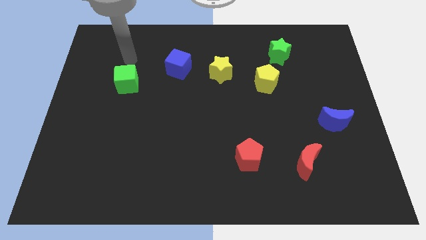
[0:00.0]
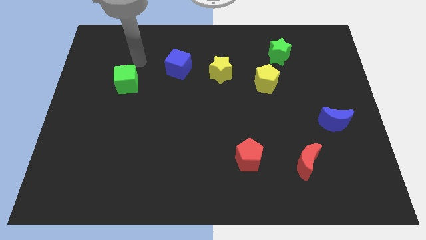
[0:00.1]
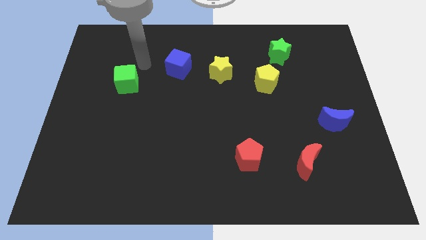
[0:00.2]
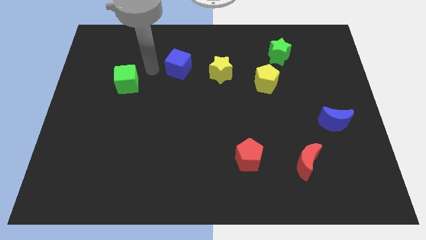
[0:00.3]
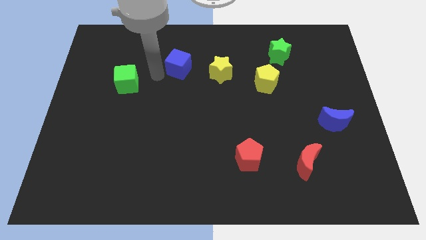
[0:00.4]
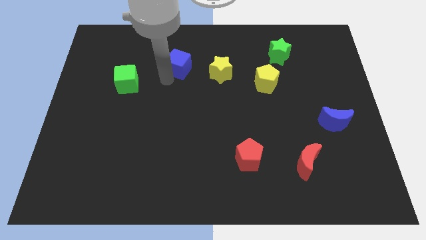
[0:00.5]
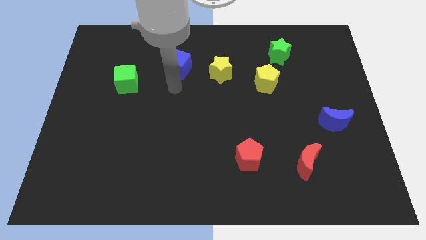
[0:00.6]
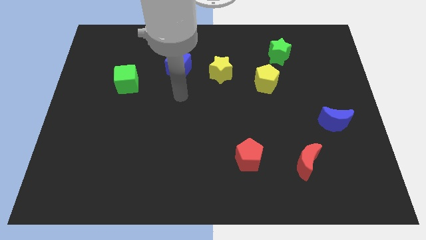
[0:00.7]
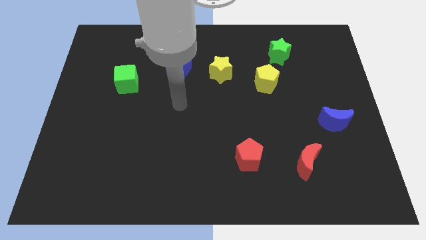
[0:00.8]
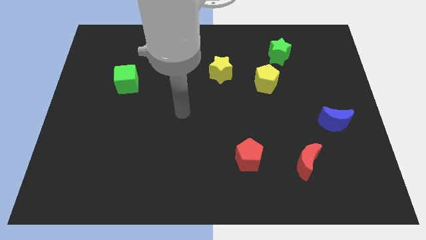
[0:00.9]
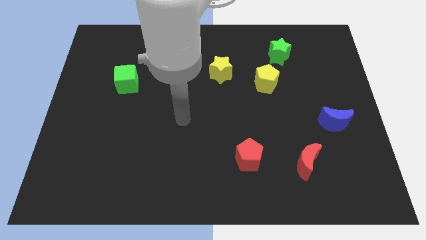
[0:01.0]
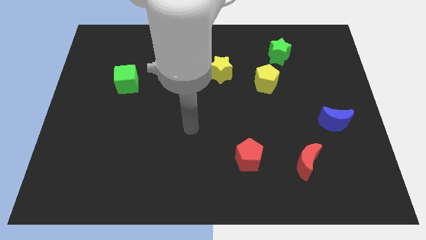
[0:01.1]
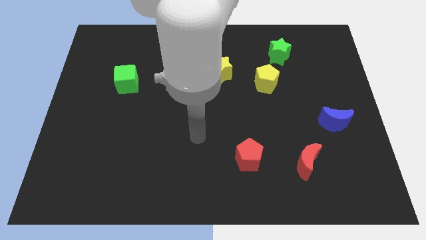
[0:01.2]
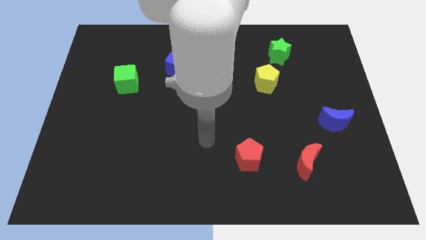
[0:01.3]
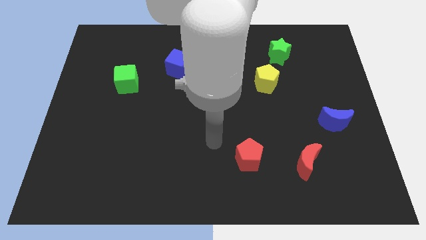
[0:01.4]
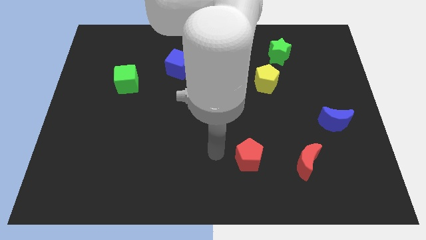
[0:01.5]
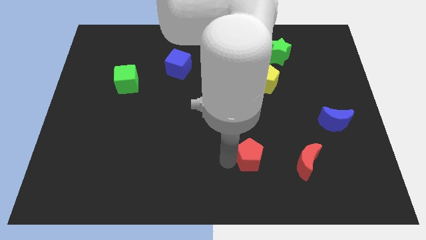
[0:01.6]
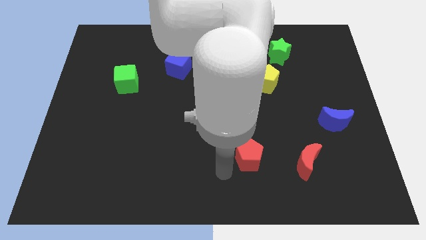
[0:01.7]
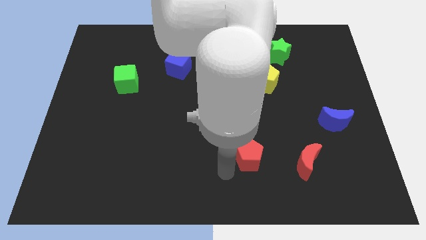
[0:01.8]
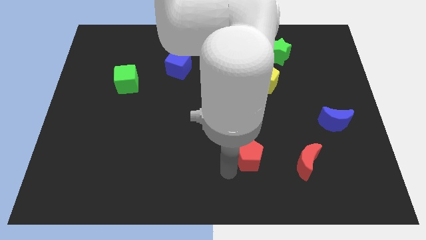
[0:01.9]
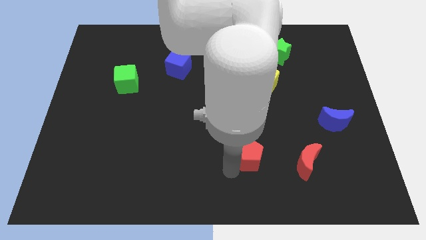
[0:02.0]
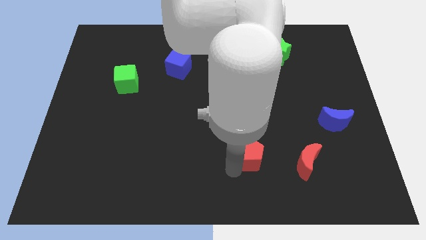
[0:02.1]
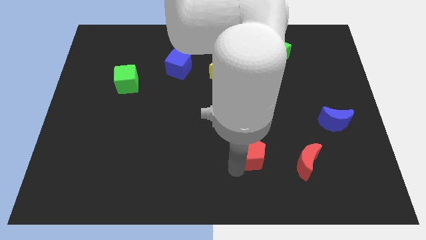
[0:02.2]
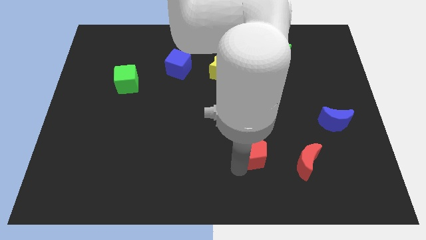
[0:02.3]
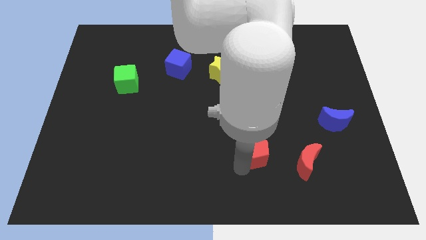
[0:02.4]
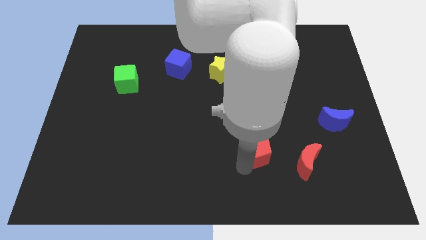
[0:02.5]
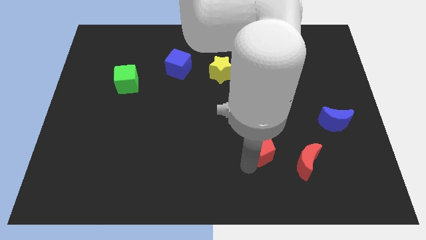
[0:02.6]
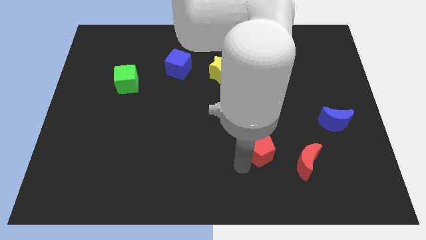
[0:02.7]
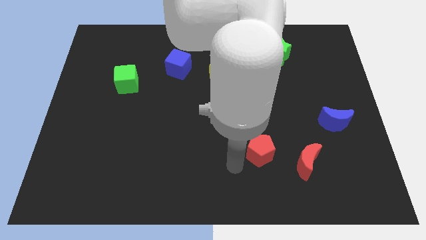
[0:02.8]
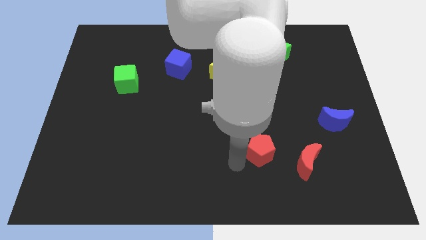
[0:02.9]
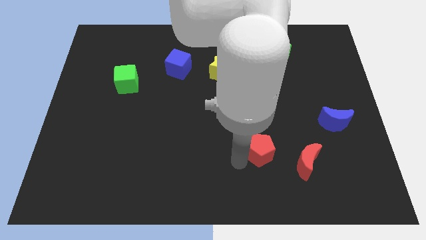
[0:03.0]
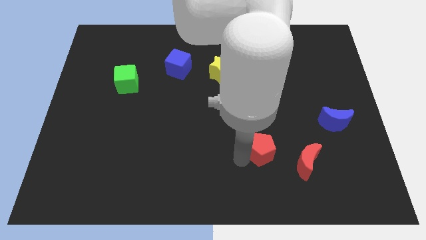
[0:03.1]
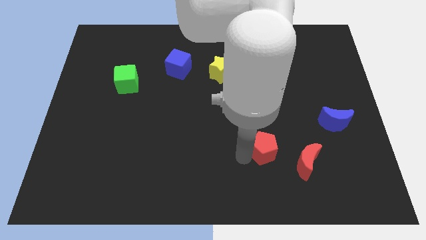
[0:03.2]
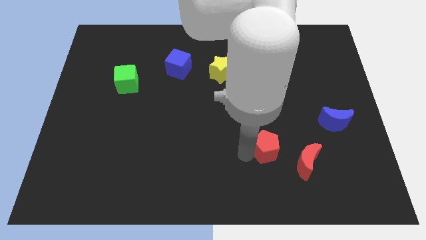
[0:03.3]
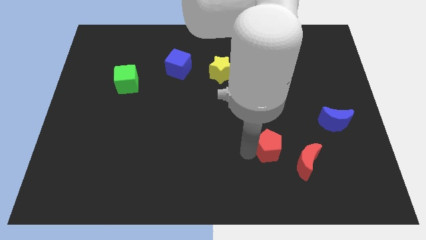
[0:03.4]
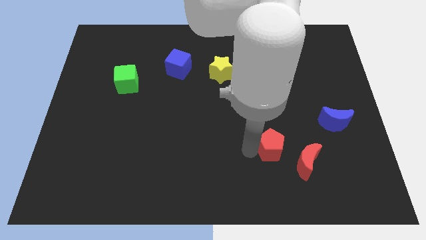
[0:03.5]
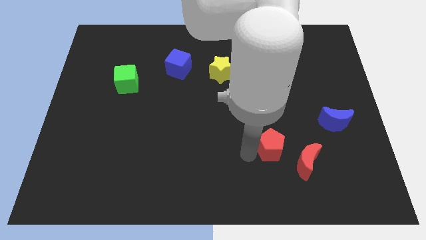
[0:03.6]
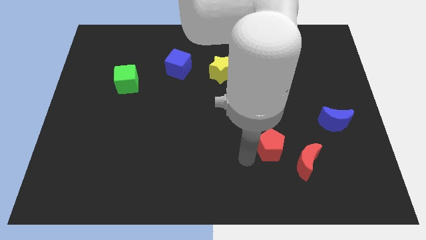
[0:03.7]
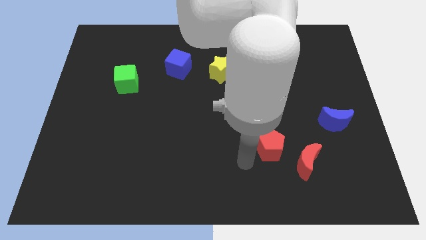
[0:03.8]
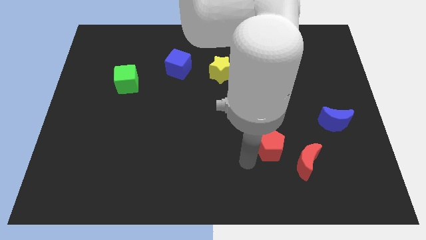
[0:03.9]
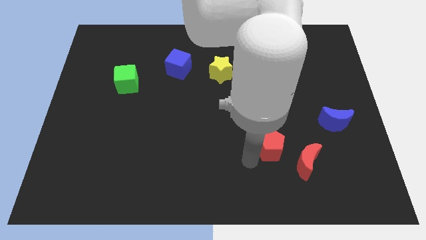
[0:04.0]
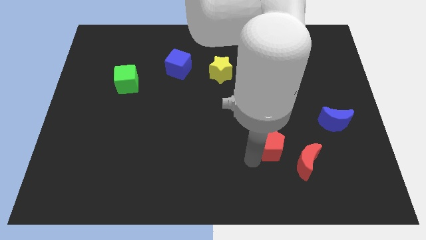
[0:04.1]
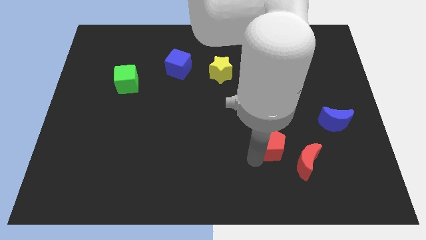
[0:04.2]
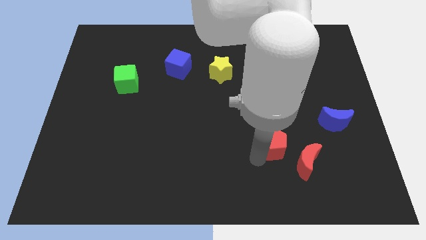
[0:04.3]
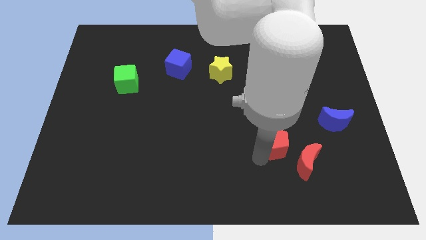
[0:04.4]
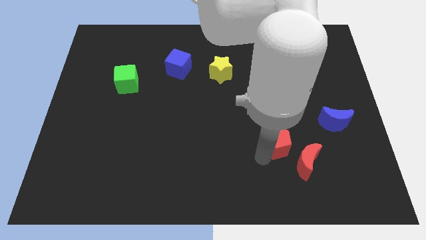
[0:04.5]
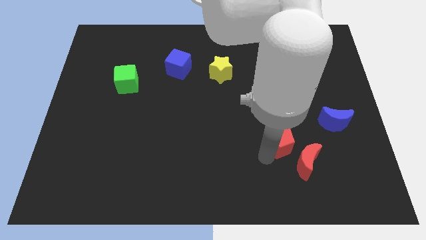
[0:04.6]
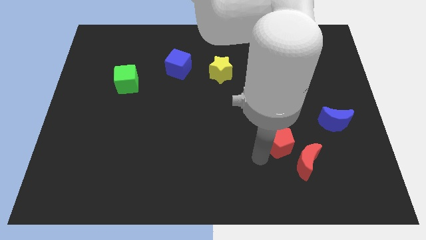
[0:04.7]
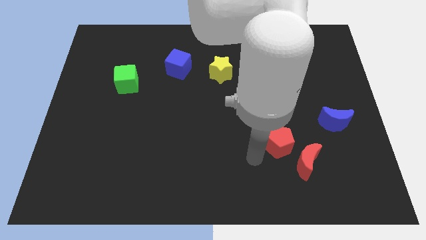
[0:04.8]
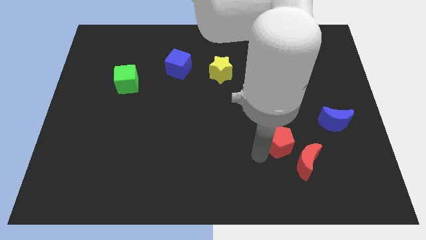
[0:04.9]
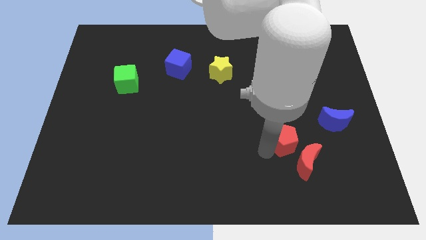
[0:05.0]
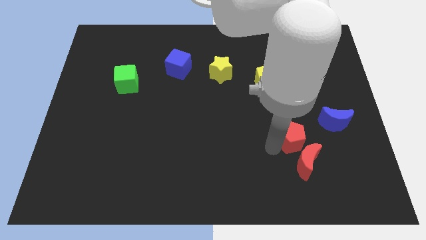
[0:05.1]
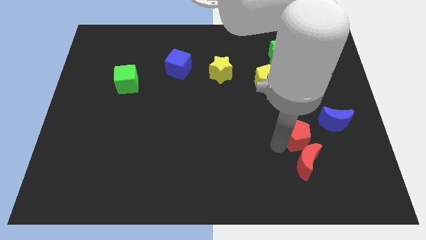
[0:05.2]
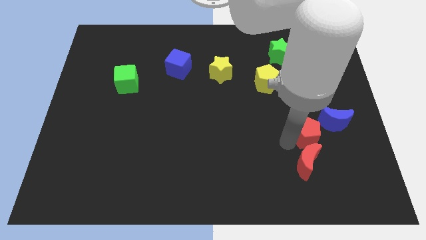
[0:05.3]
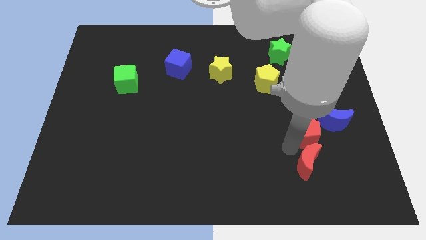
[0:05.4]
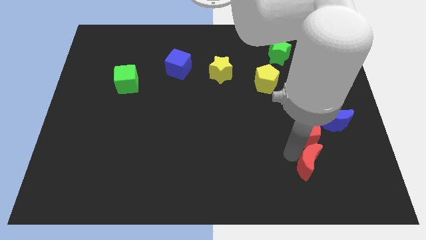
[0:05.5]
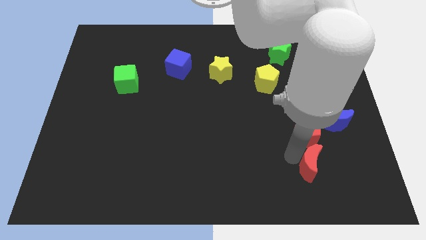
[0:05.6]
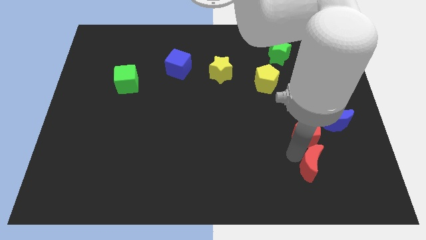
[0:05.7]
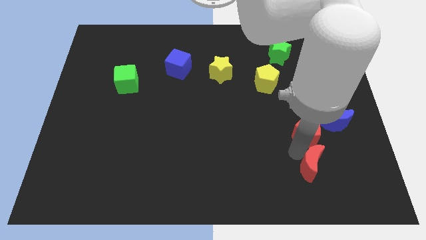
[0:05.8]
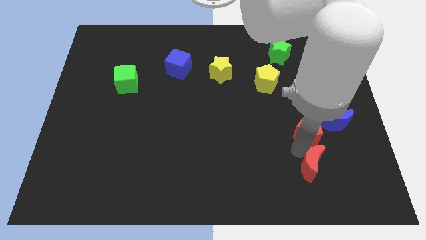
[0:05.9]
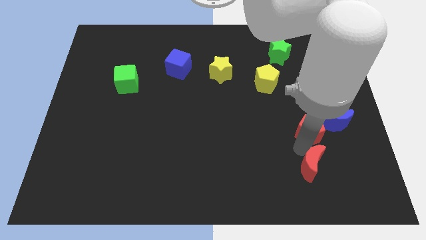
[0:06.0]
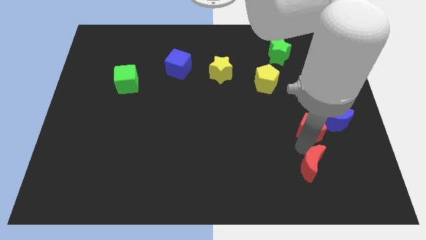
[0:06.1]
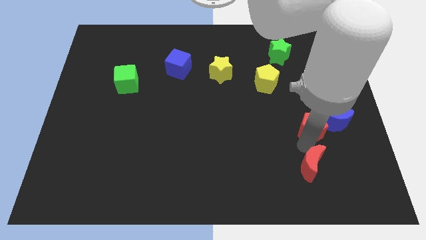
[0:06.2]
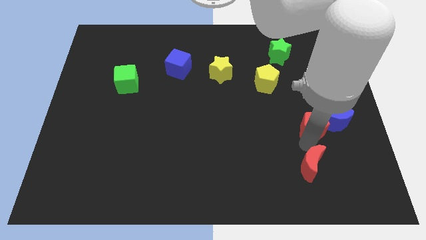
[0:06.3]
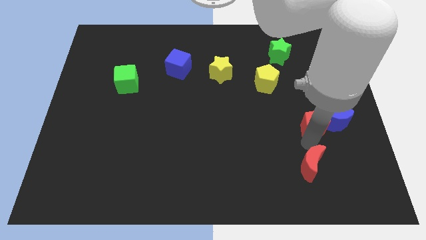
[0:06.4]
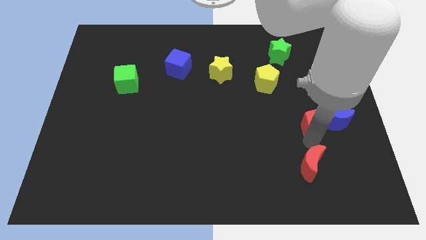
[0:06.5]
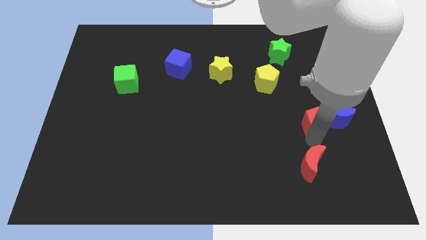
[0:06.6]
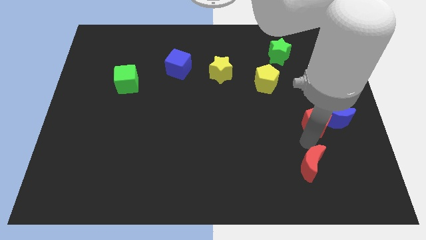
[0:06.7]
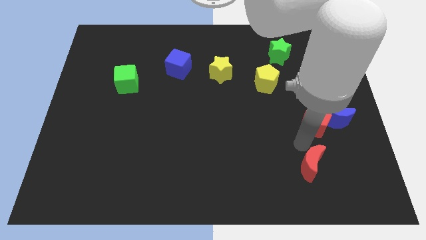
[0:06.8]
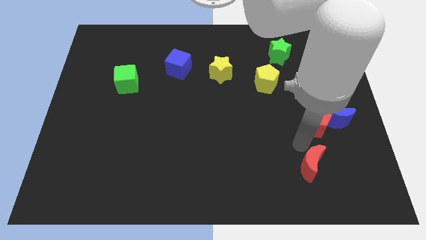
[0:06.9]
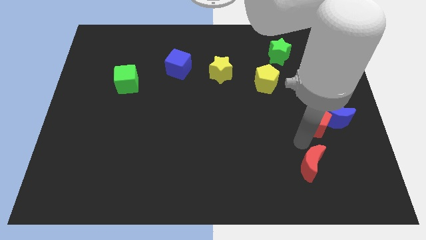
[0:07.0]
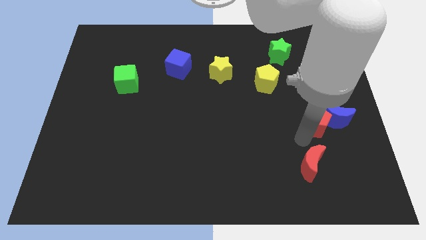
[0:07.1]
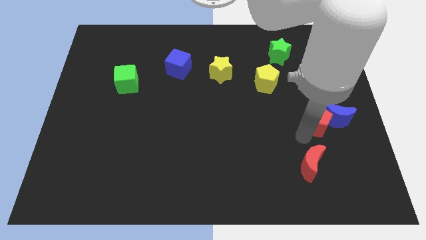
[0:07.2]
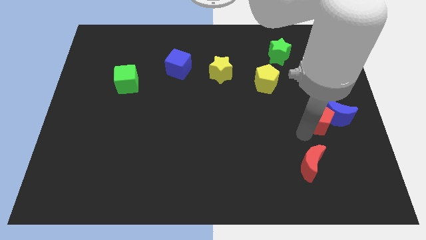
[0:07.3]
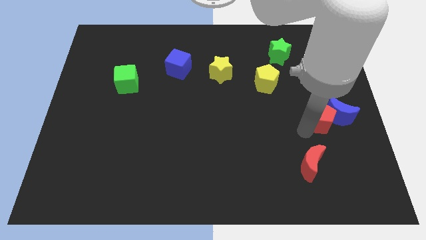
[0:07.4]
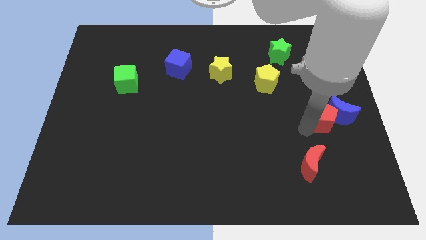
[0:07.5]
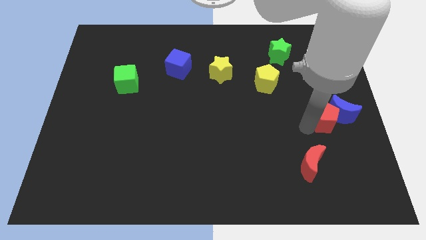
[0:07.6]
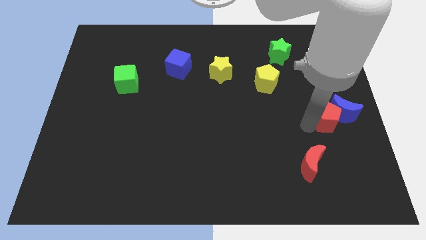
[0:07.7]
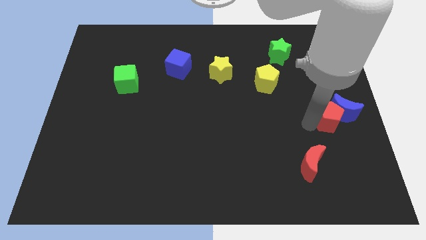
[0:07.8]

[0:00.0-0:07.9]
move the red pentagon to the right side
